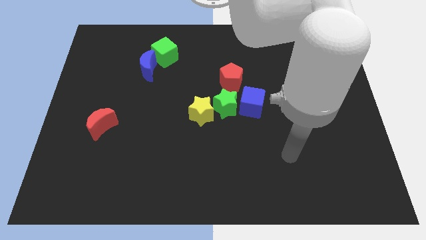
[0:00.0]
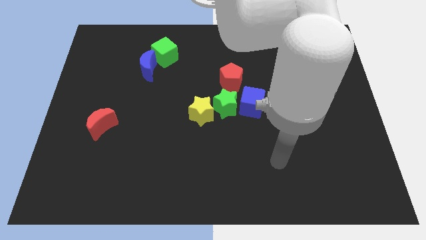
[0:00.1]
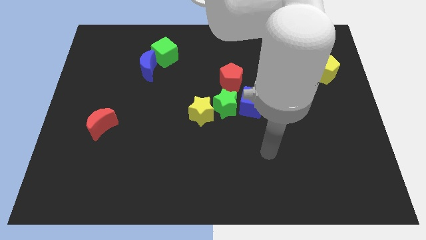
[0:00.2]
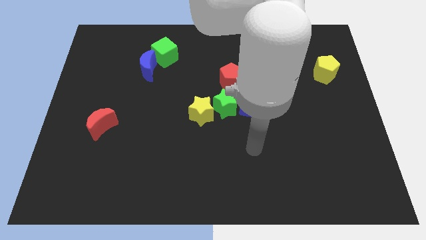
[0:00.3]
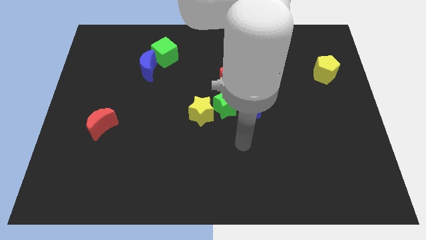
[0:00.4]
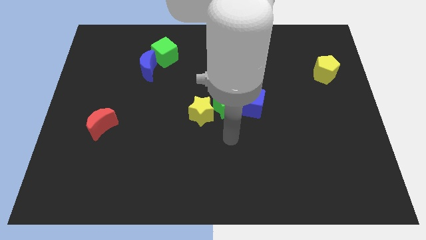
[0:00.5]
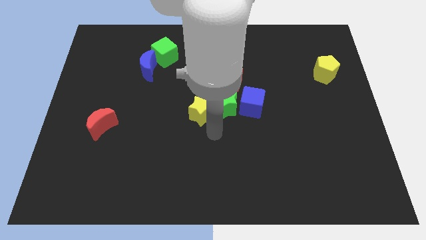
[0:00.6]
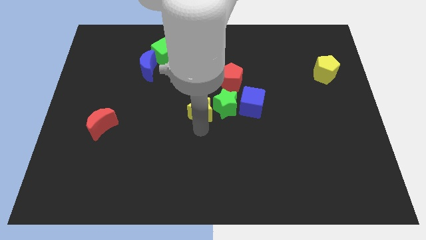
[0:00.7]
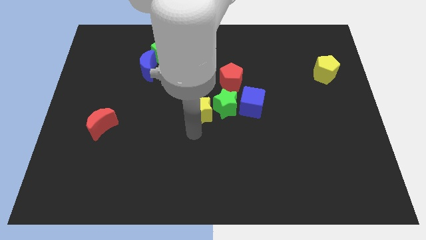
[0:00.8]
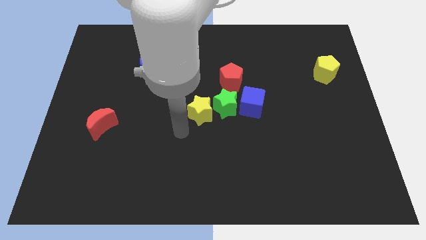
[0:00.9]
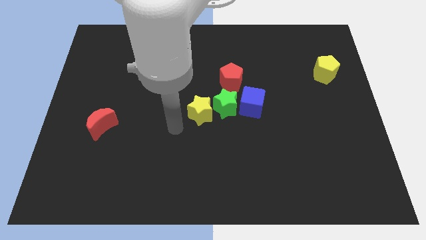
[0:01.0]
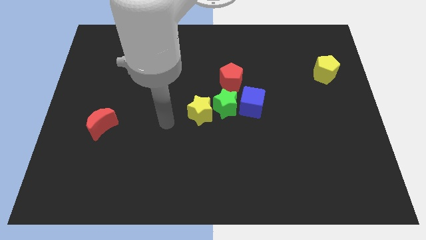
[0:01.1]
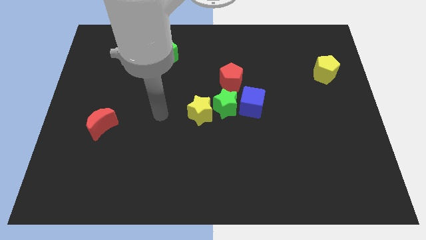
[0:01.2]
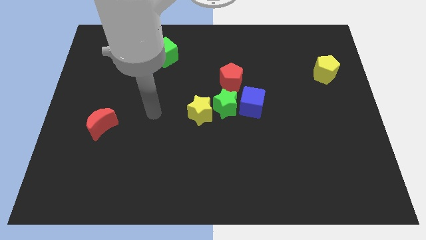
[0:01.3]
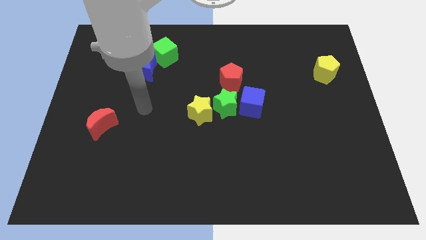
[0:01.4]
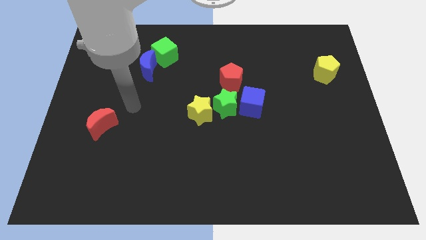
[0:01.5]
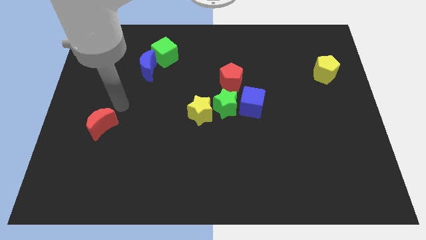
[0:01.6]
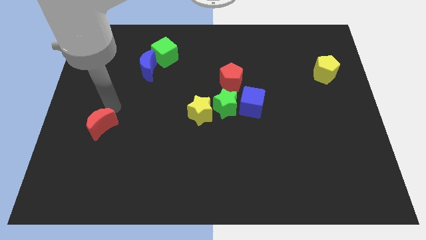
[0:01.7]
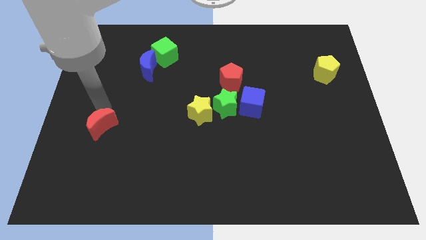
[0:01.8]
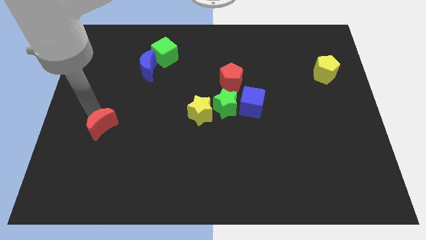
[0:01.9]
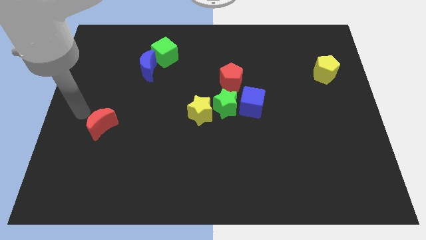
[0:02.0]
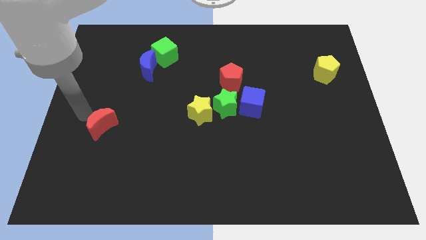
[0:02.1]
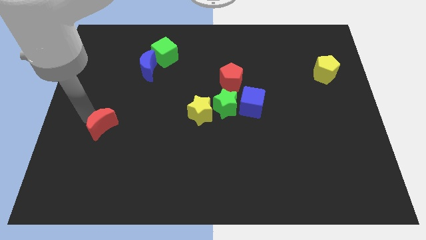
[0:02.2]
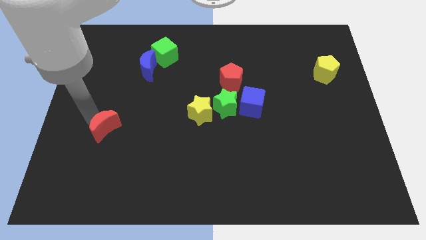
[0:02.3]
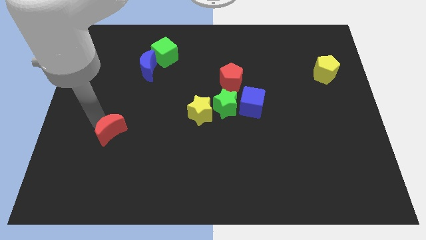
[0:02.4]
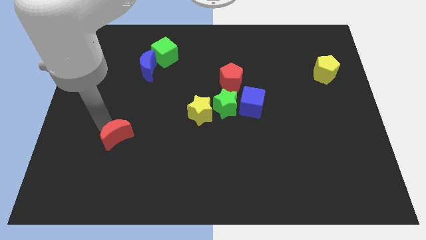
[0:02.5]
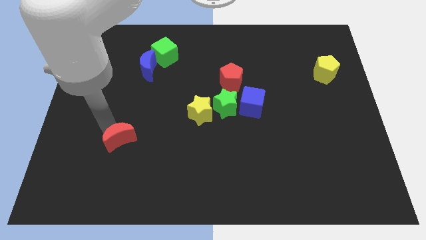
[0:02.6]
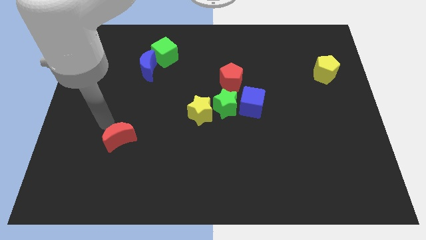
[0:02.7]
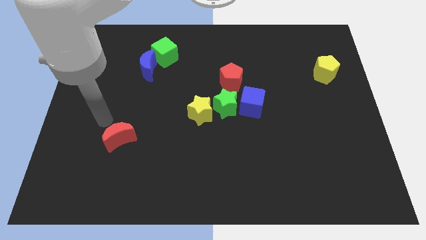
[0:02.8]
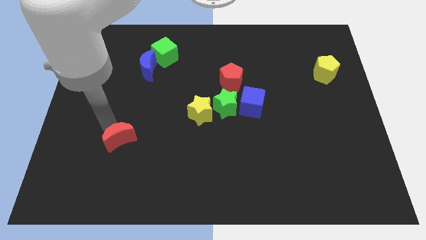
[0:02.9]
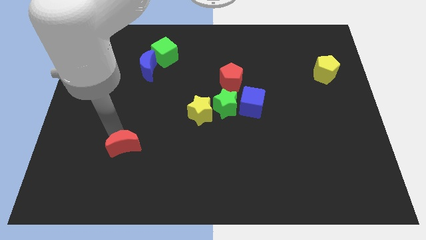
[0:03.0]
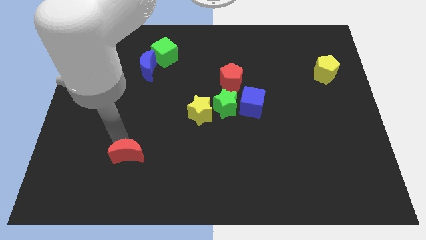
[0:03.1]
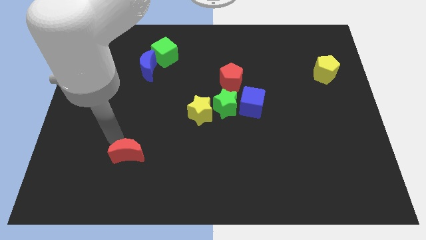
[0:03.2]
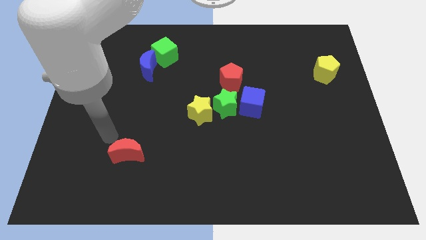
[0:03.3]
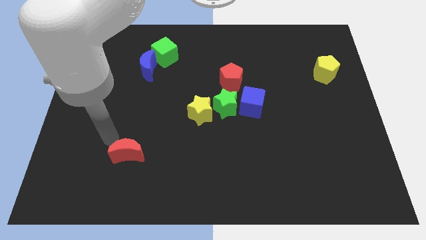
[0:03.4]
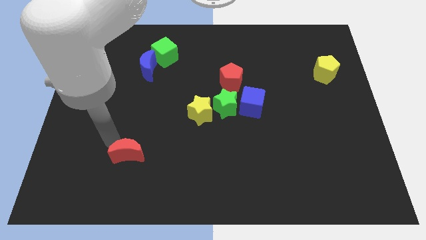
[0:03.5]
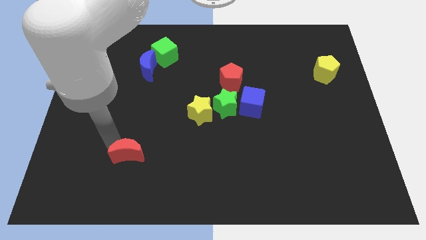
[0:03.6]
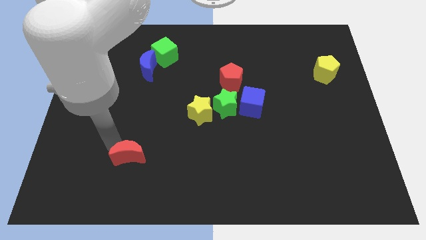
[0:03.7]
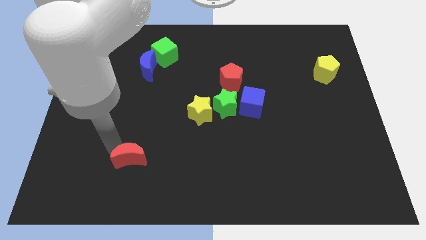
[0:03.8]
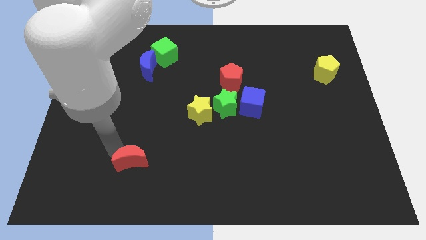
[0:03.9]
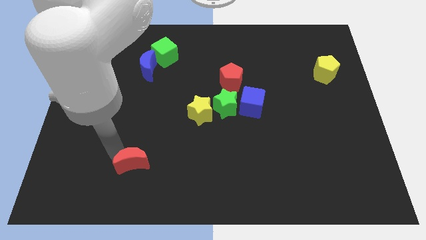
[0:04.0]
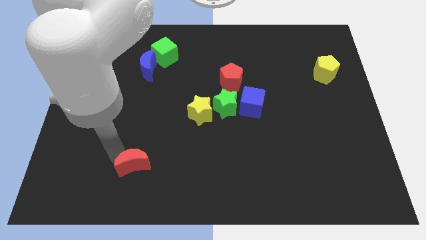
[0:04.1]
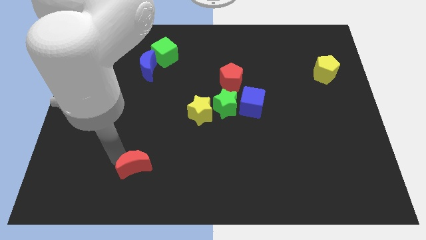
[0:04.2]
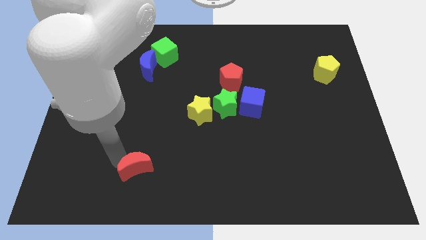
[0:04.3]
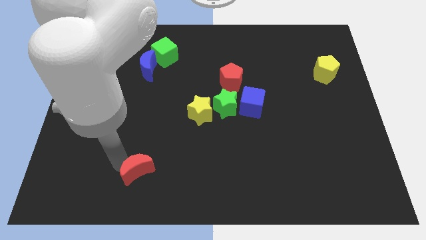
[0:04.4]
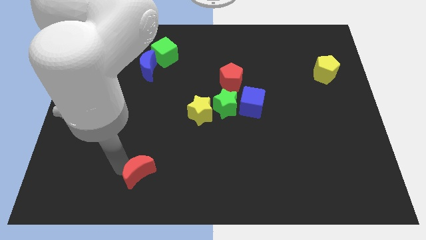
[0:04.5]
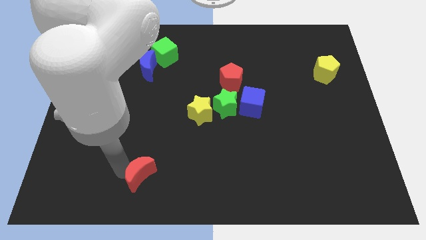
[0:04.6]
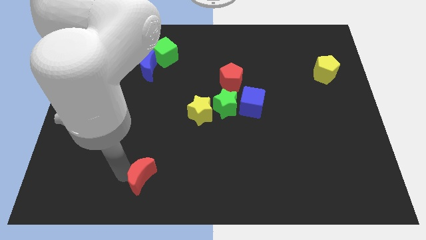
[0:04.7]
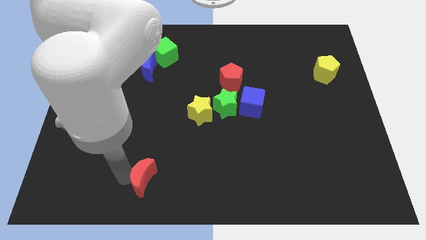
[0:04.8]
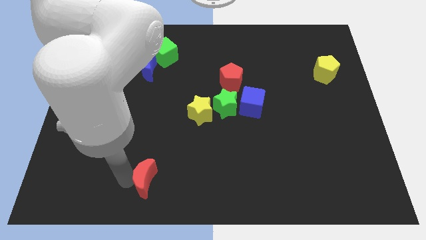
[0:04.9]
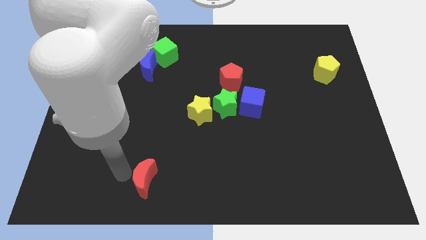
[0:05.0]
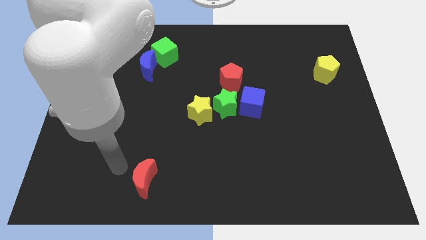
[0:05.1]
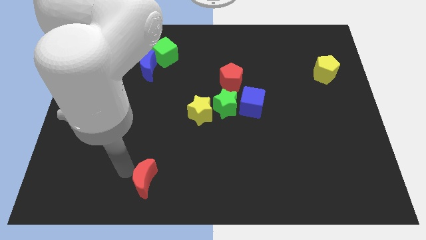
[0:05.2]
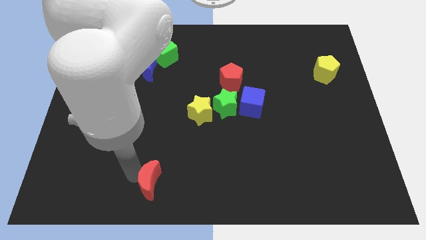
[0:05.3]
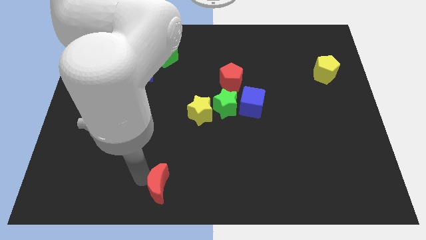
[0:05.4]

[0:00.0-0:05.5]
put the red moon to the bottom side
